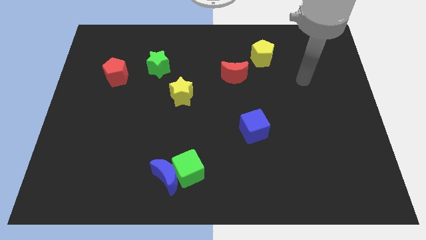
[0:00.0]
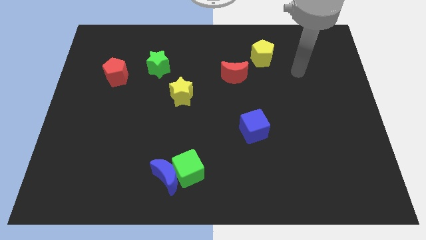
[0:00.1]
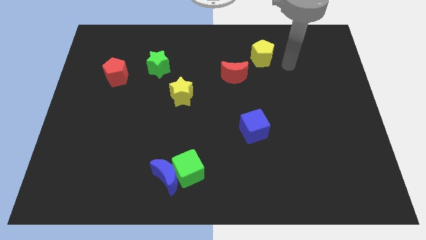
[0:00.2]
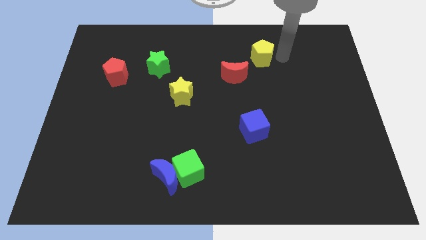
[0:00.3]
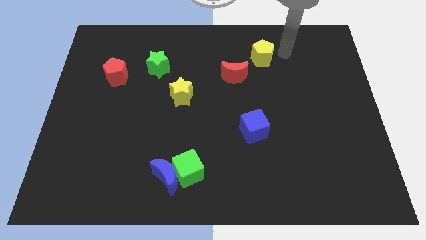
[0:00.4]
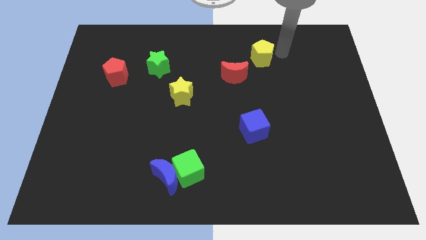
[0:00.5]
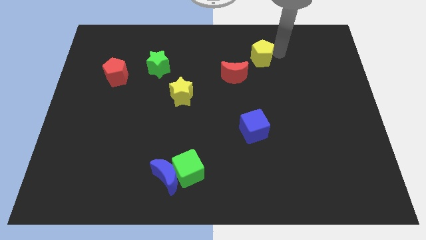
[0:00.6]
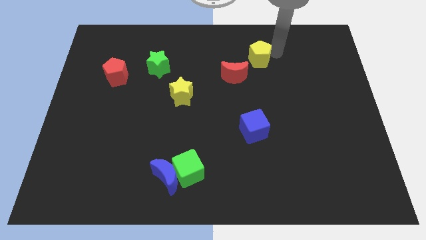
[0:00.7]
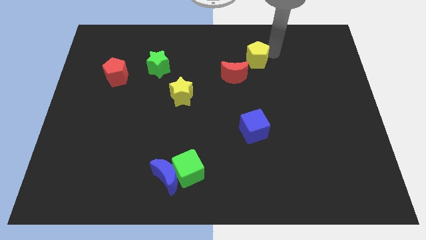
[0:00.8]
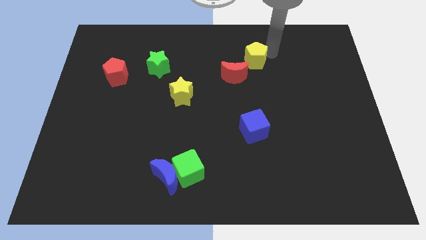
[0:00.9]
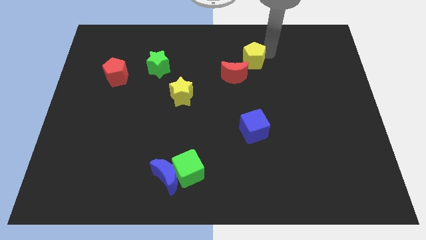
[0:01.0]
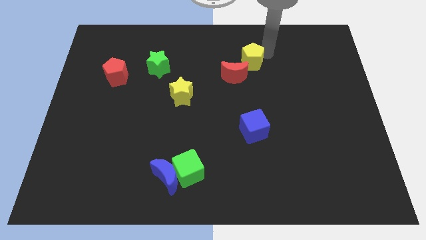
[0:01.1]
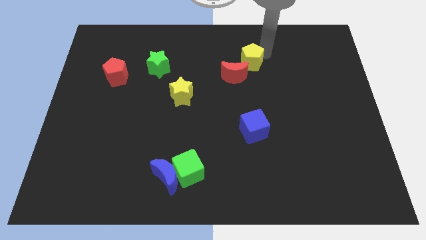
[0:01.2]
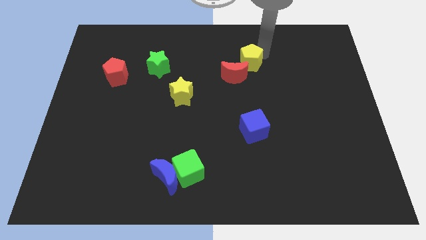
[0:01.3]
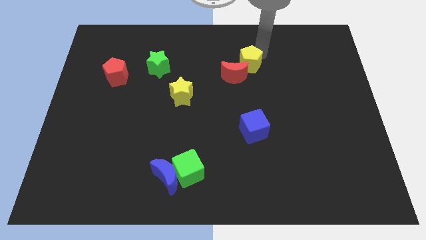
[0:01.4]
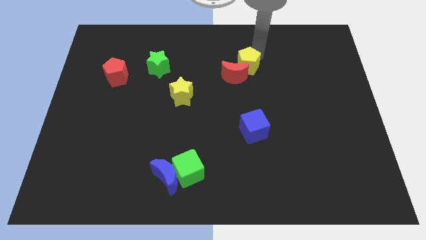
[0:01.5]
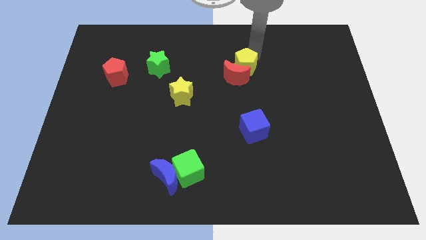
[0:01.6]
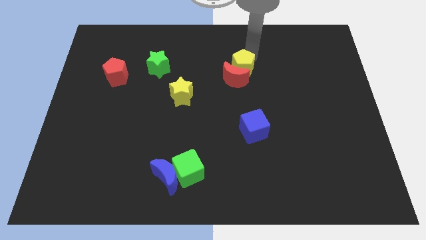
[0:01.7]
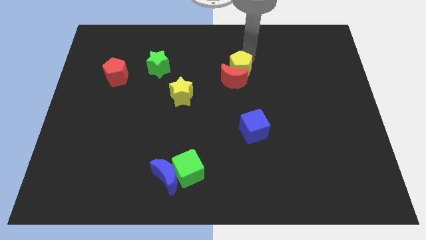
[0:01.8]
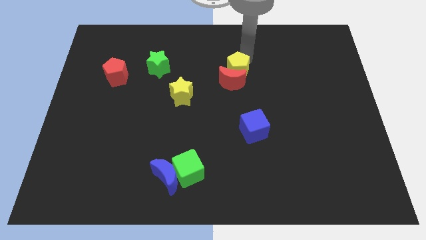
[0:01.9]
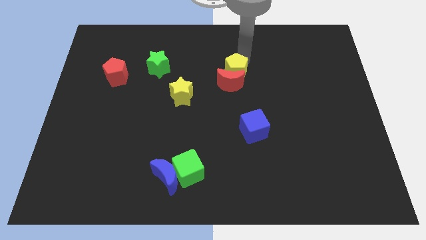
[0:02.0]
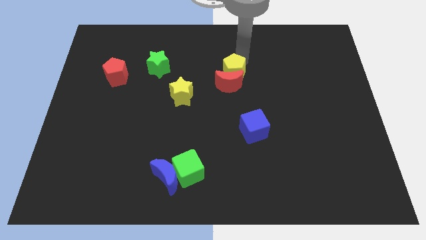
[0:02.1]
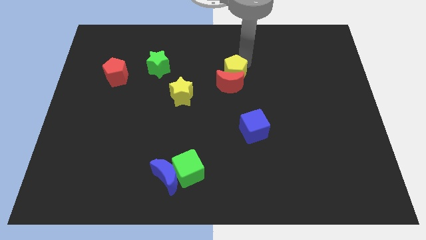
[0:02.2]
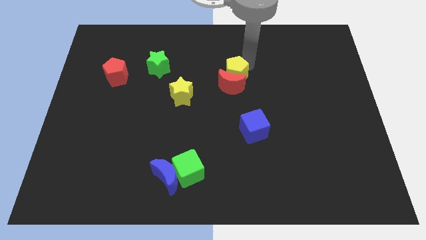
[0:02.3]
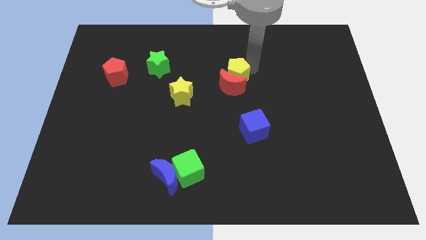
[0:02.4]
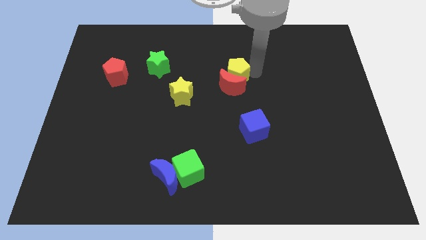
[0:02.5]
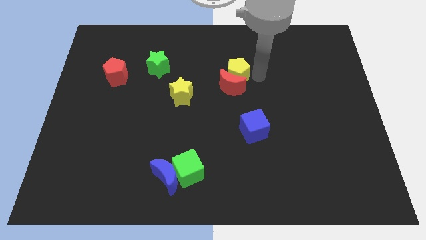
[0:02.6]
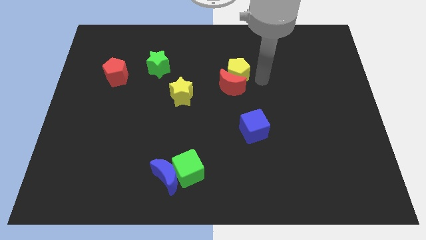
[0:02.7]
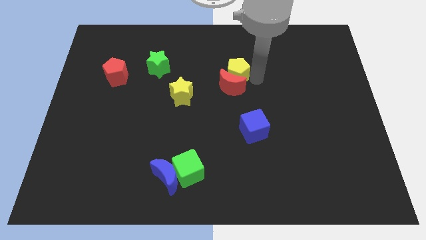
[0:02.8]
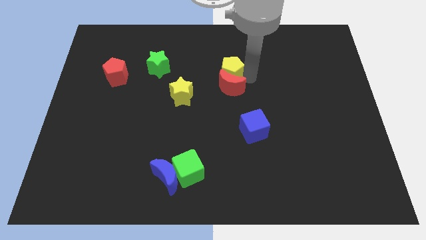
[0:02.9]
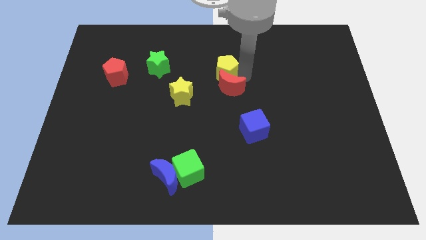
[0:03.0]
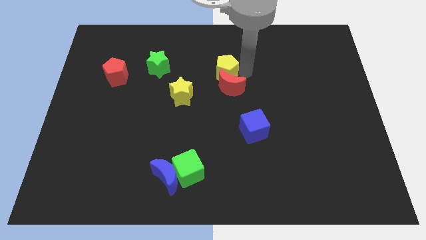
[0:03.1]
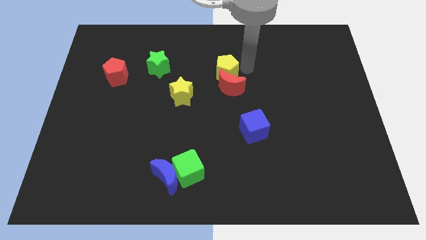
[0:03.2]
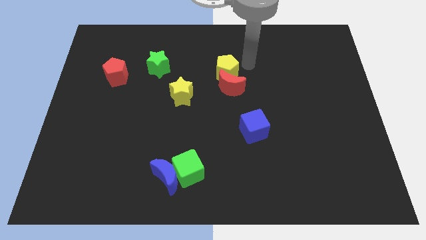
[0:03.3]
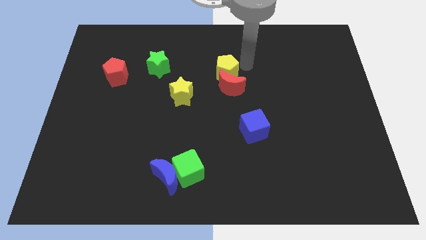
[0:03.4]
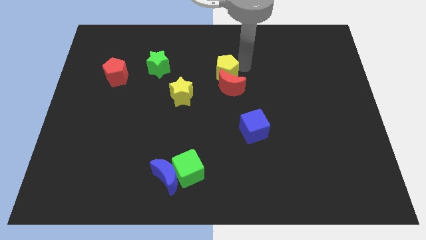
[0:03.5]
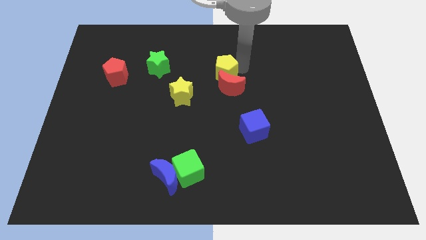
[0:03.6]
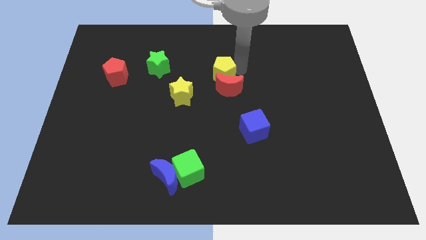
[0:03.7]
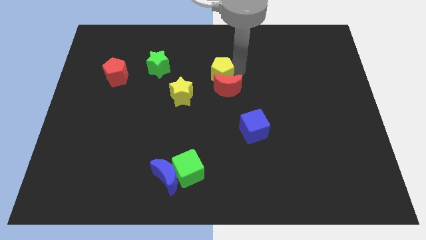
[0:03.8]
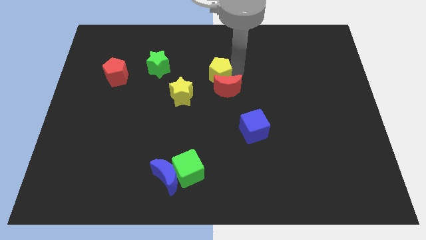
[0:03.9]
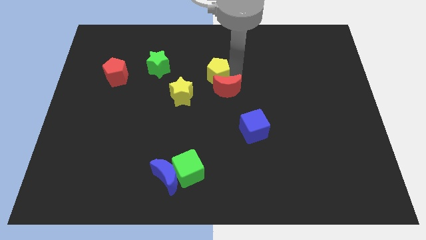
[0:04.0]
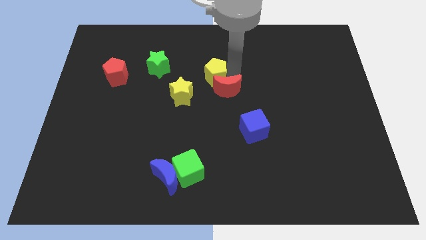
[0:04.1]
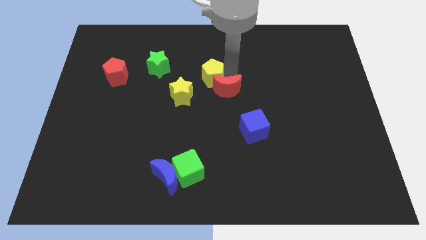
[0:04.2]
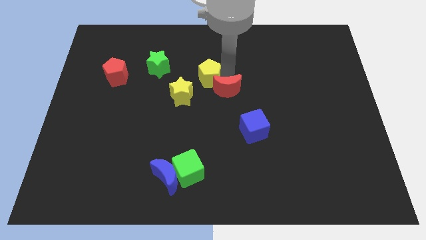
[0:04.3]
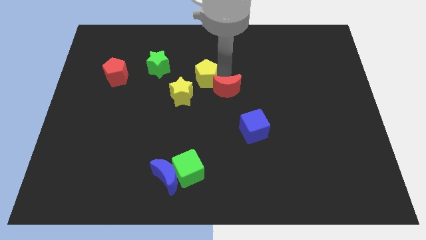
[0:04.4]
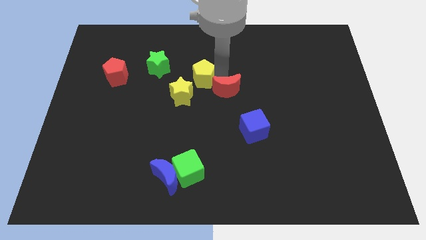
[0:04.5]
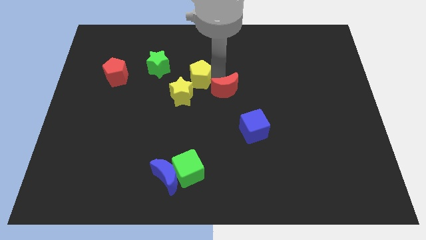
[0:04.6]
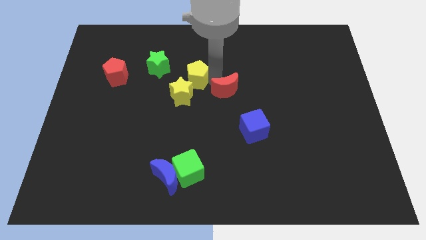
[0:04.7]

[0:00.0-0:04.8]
push the yellow pentagon diagonally down and to the right of the green star

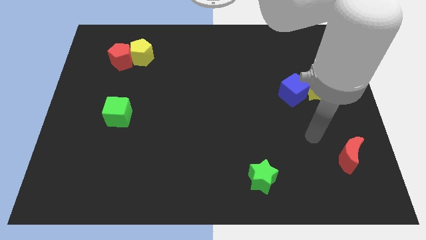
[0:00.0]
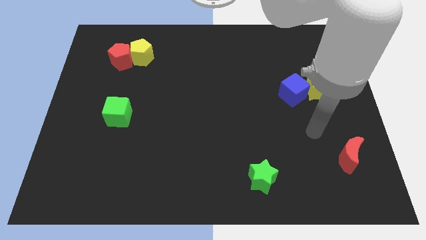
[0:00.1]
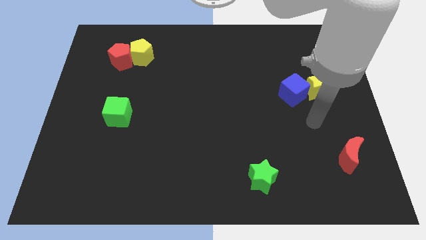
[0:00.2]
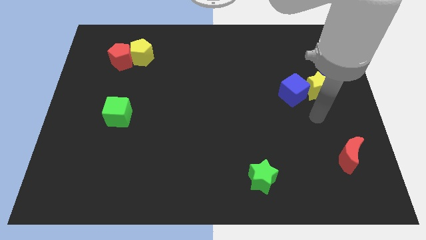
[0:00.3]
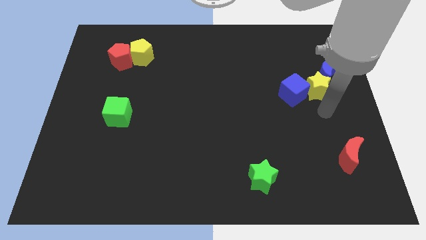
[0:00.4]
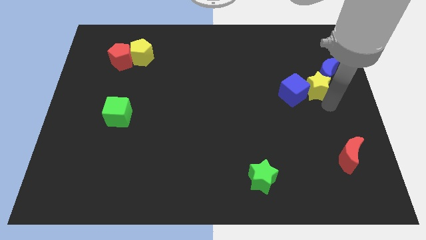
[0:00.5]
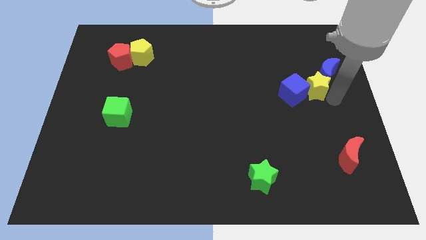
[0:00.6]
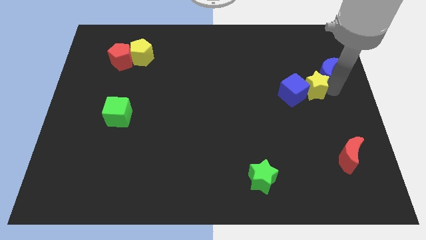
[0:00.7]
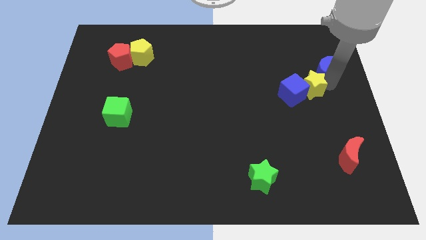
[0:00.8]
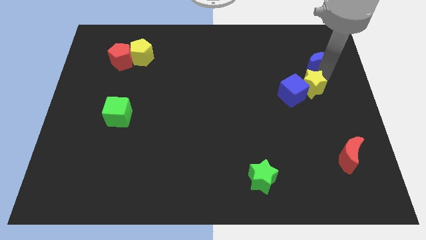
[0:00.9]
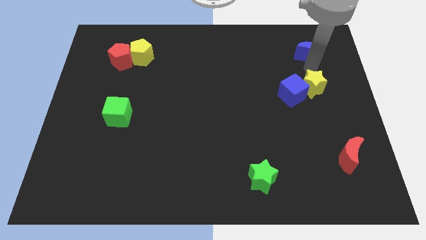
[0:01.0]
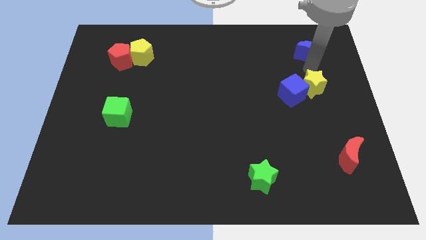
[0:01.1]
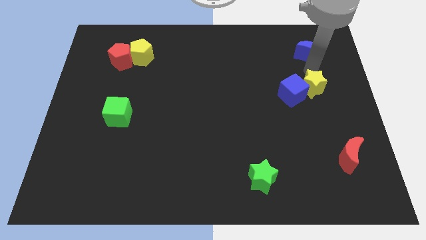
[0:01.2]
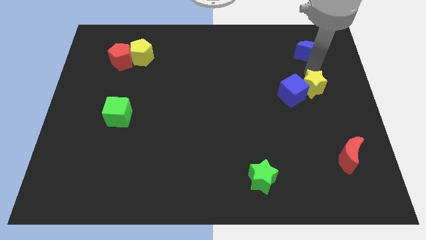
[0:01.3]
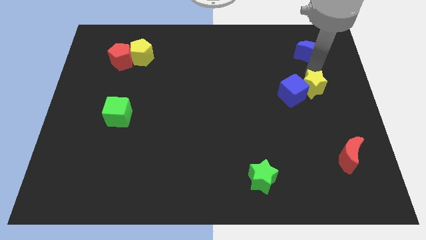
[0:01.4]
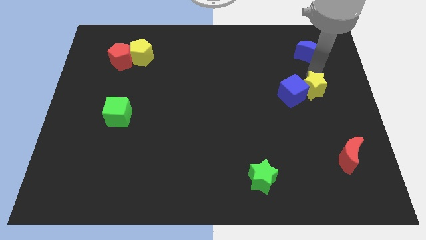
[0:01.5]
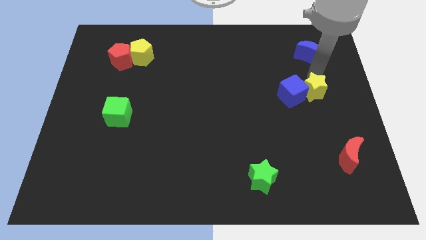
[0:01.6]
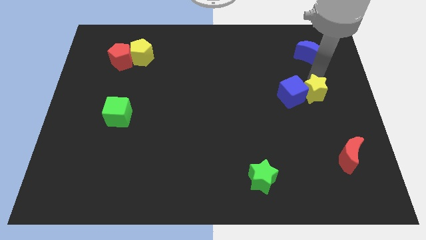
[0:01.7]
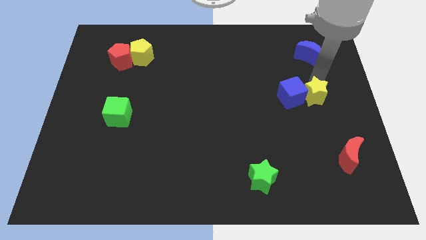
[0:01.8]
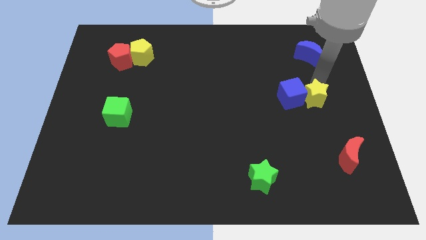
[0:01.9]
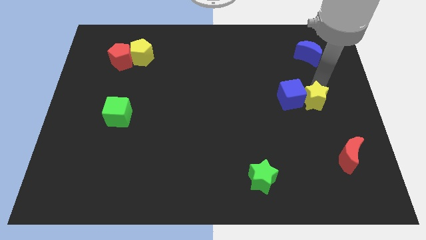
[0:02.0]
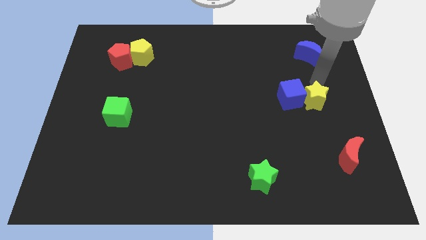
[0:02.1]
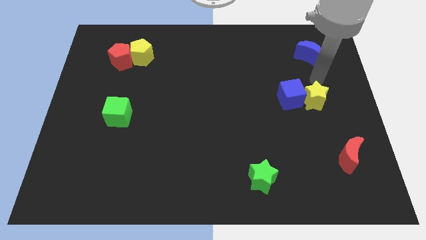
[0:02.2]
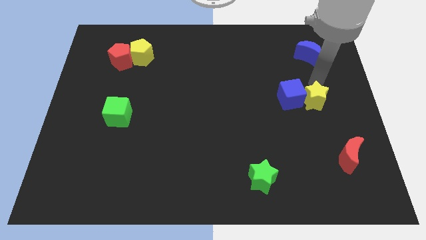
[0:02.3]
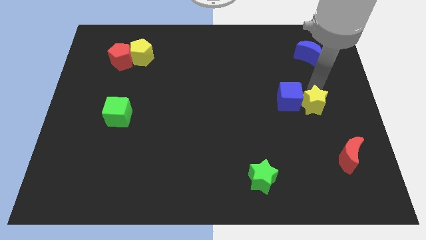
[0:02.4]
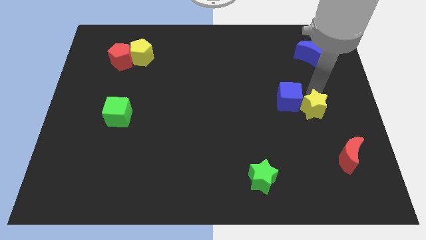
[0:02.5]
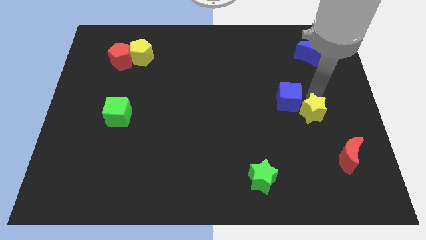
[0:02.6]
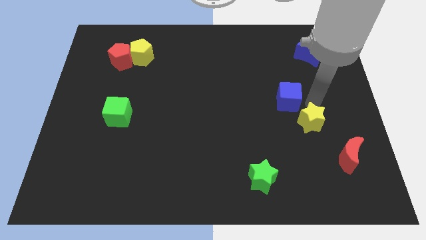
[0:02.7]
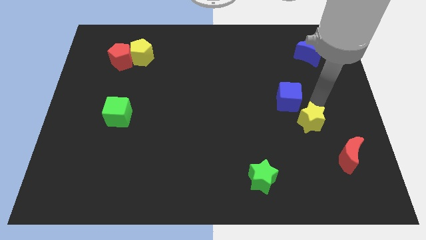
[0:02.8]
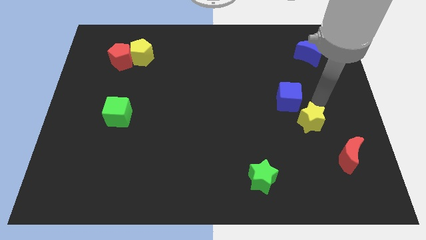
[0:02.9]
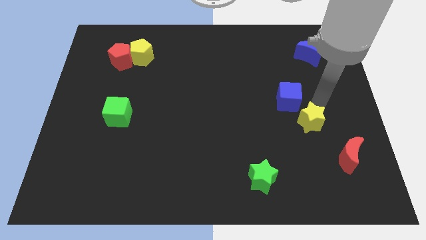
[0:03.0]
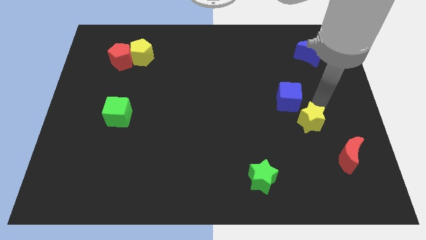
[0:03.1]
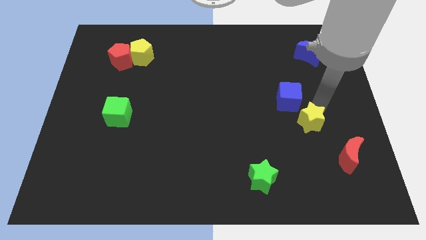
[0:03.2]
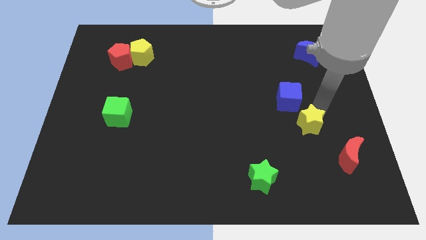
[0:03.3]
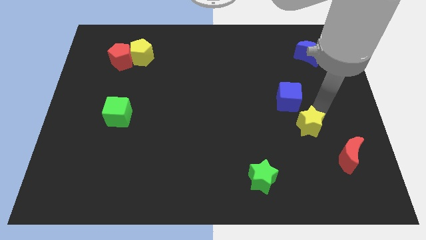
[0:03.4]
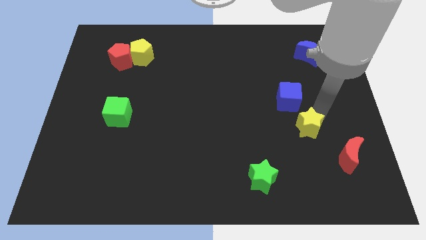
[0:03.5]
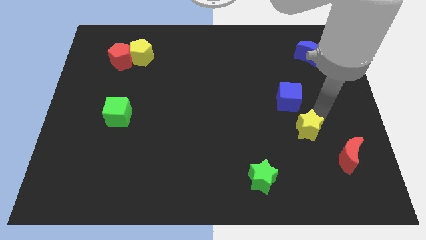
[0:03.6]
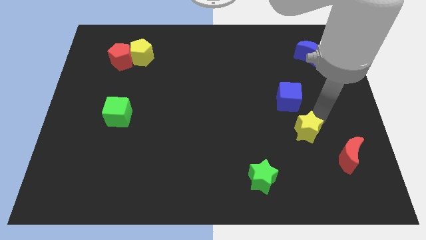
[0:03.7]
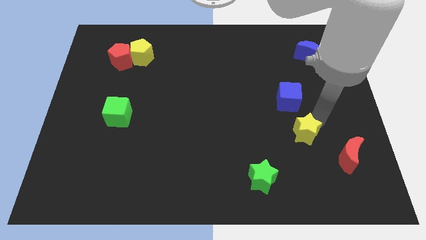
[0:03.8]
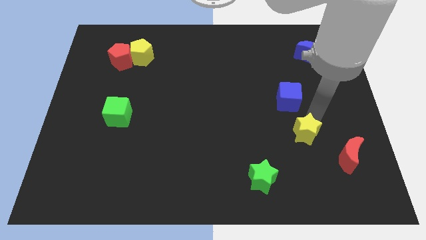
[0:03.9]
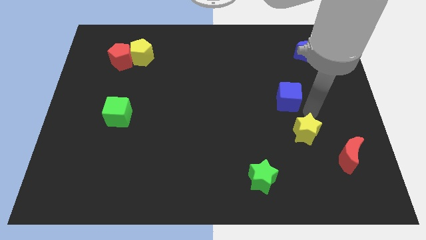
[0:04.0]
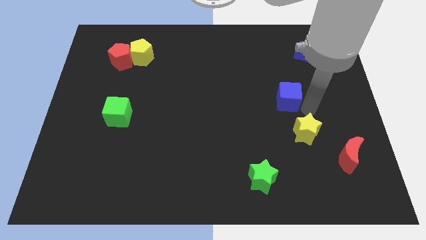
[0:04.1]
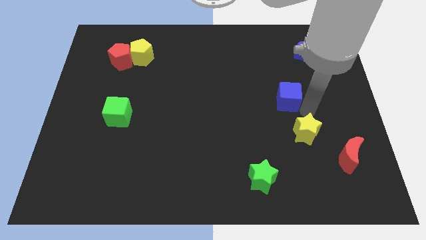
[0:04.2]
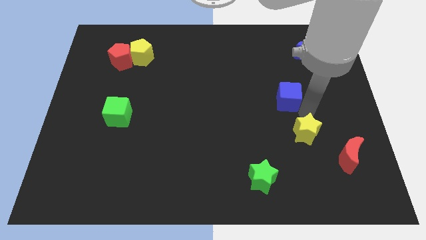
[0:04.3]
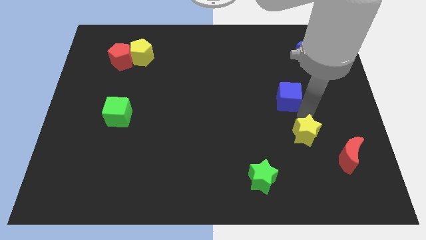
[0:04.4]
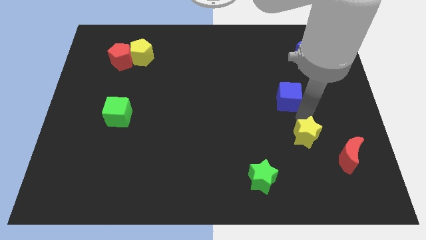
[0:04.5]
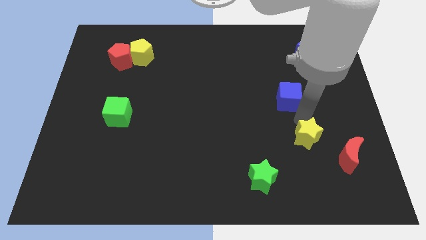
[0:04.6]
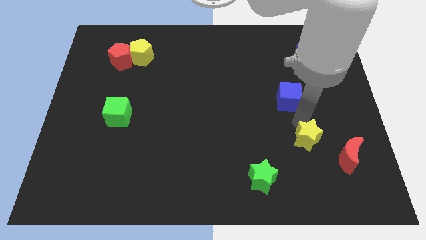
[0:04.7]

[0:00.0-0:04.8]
slide the yellow star to the left of the red moon
